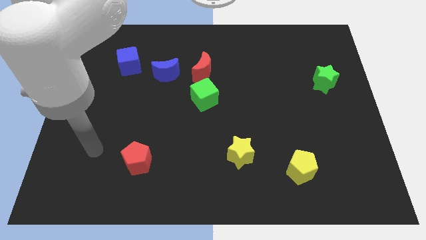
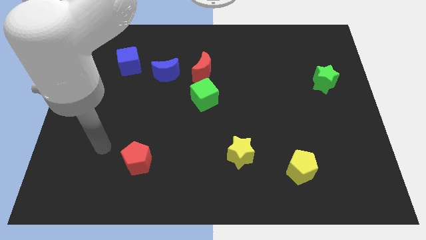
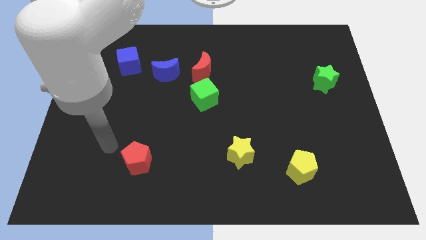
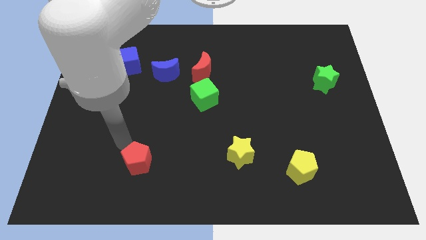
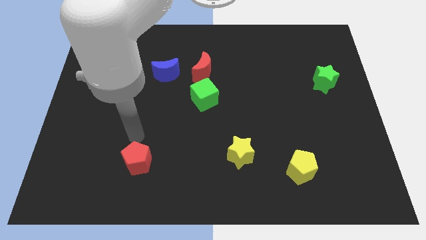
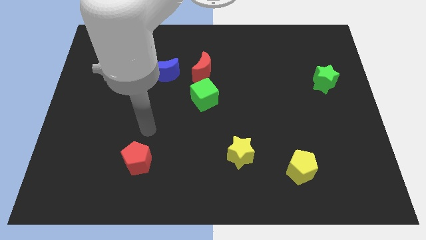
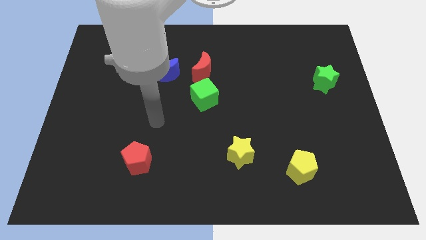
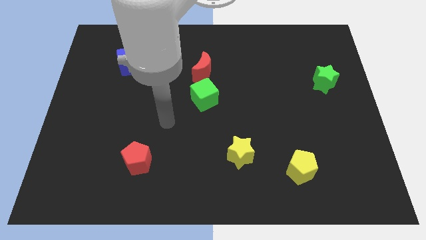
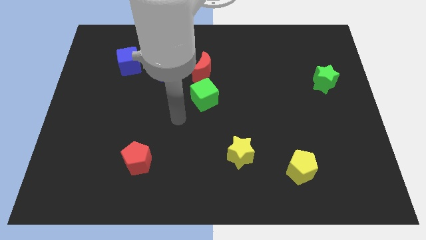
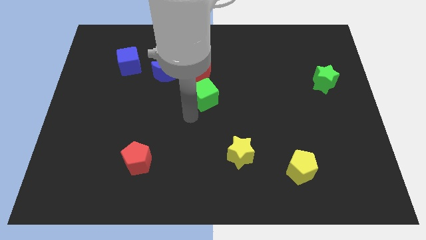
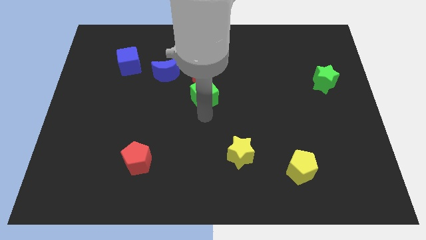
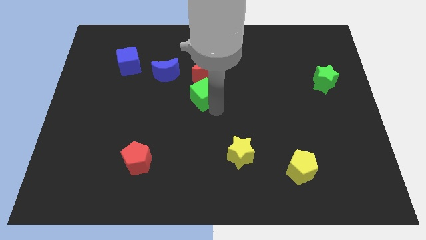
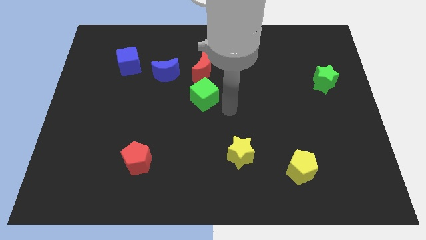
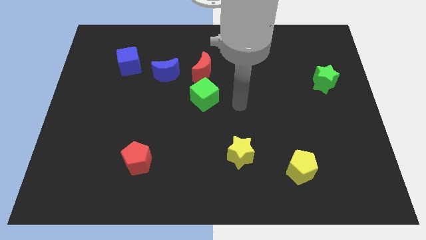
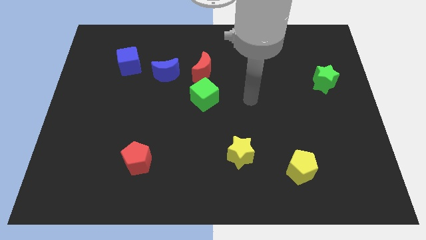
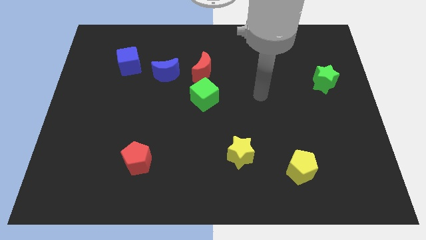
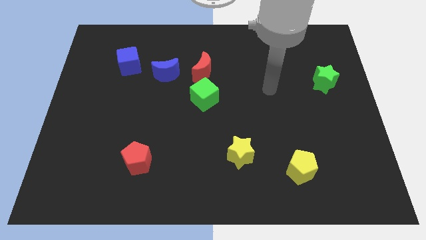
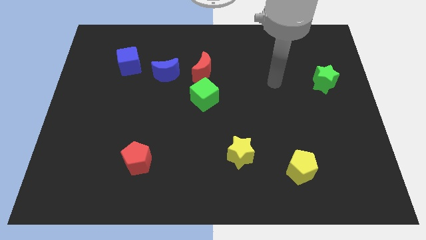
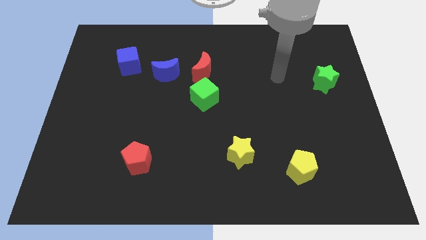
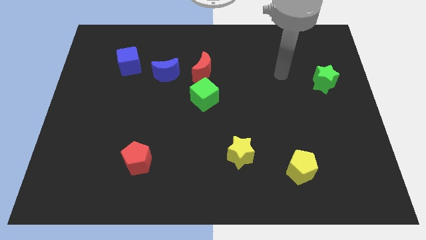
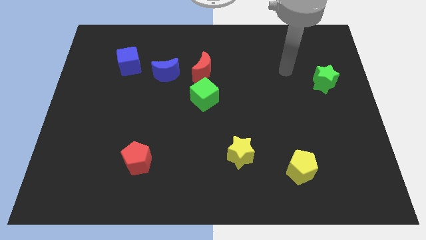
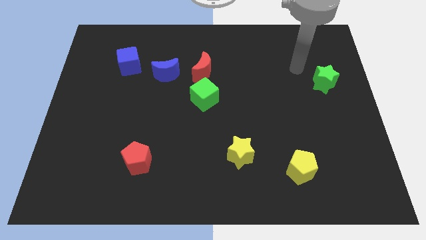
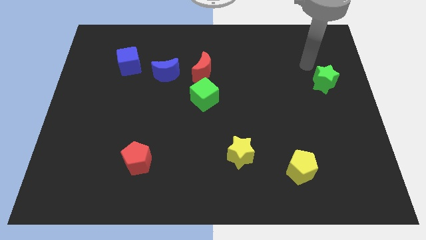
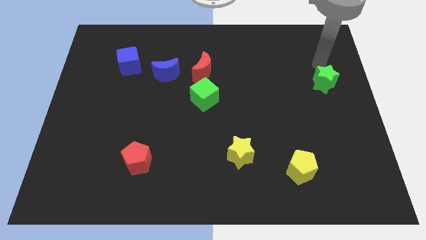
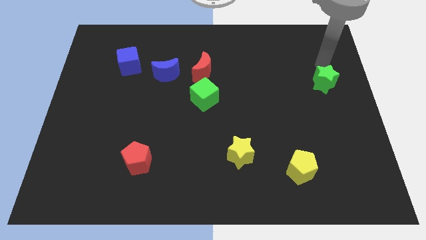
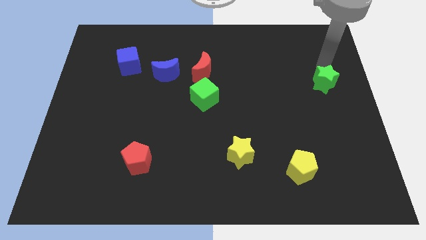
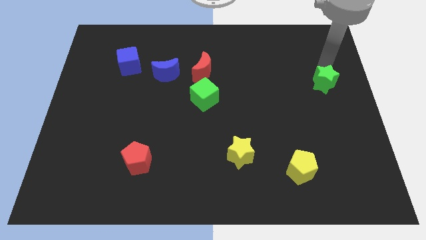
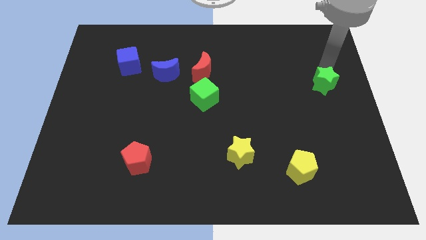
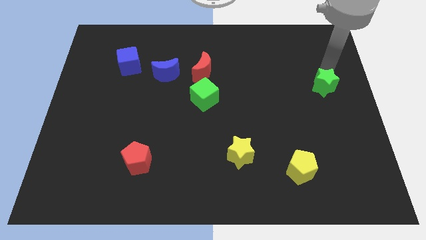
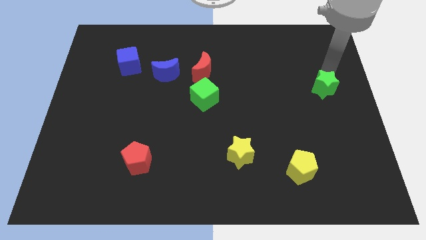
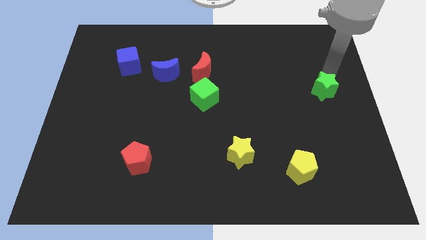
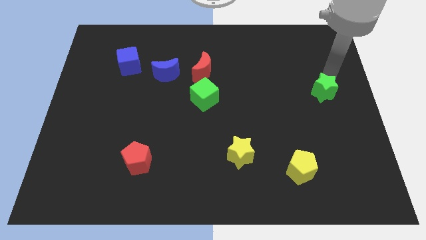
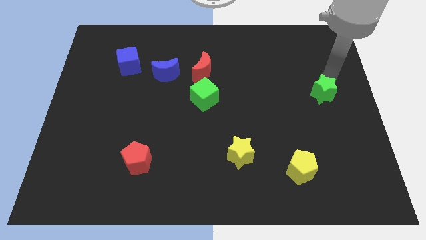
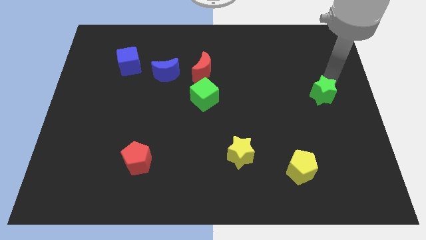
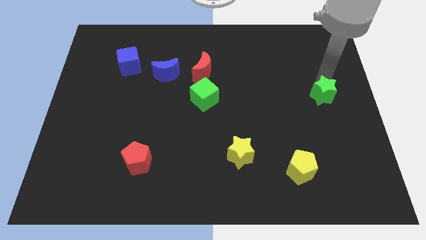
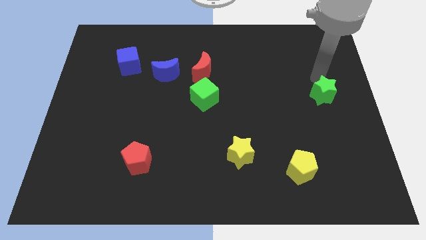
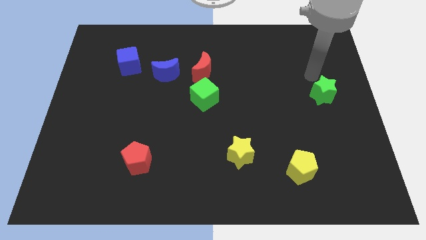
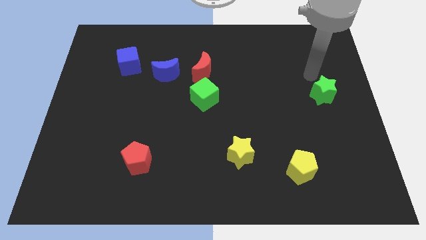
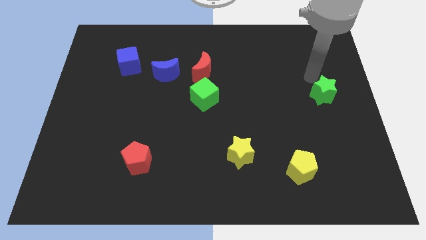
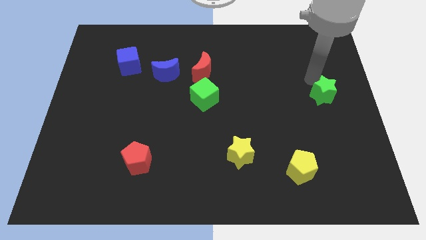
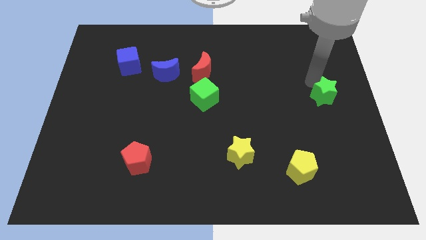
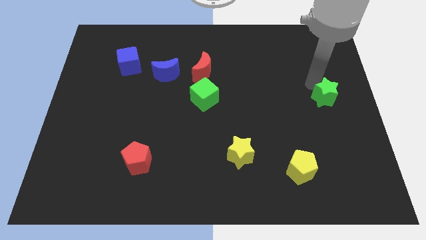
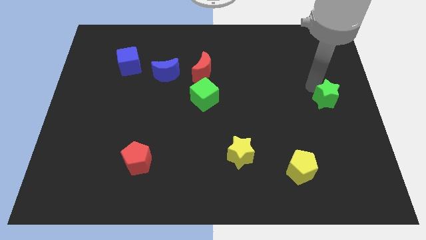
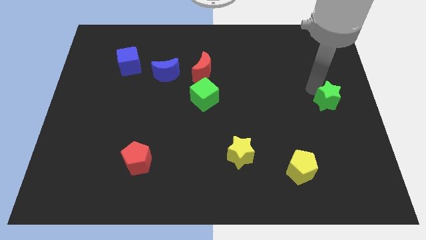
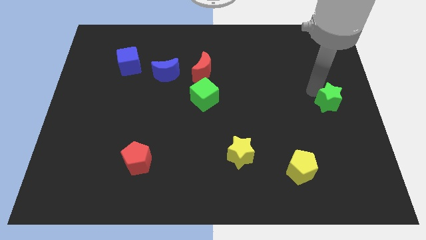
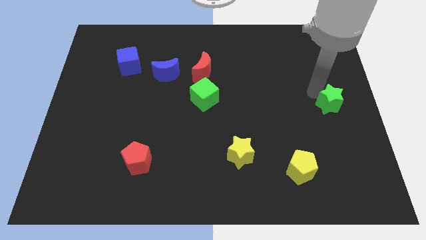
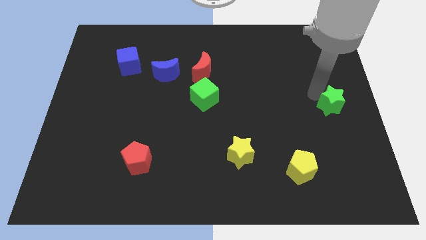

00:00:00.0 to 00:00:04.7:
slightly push the green star down

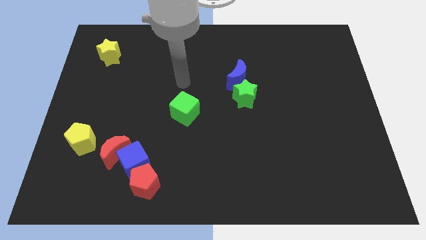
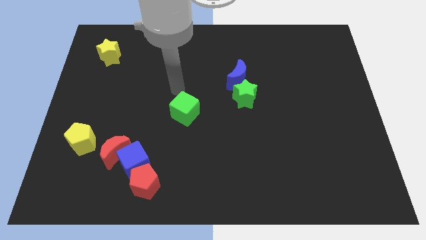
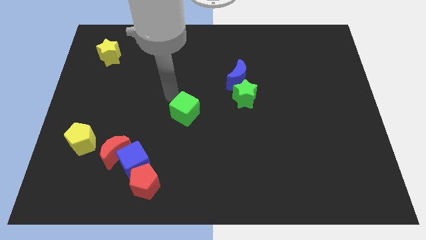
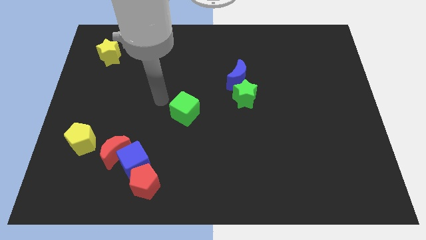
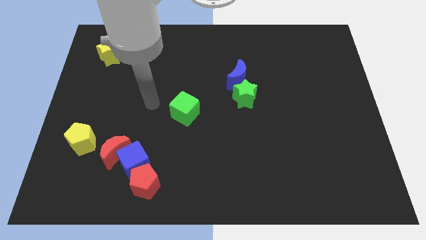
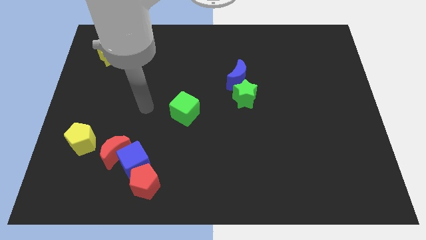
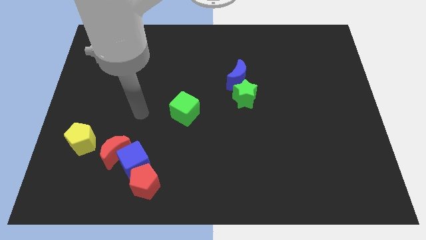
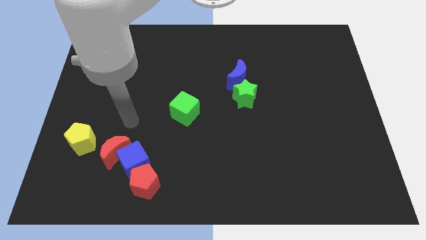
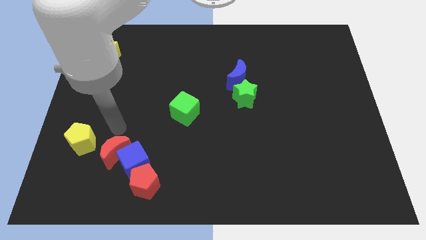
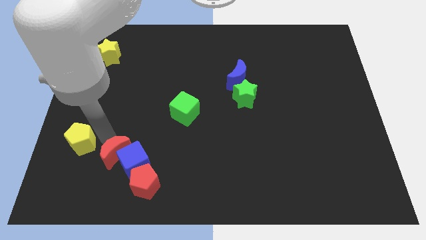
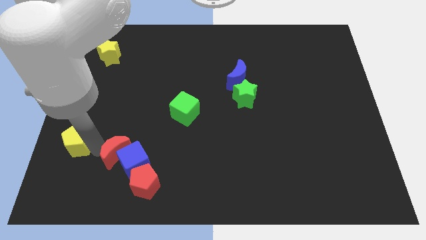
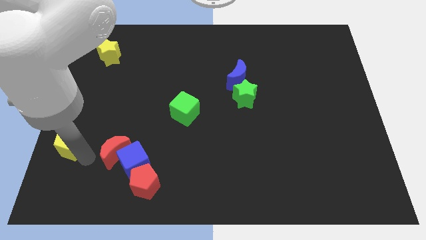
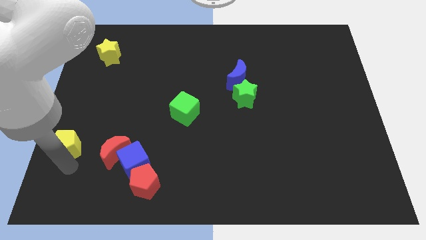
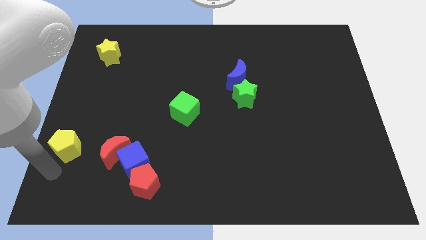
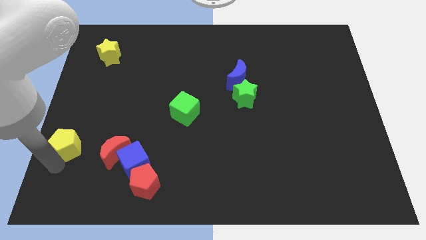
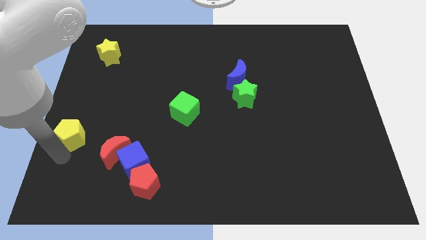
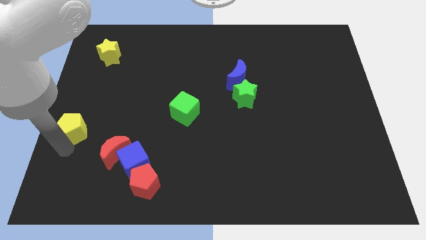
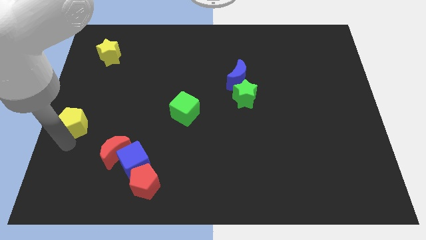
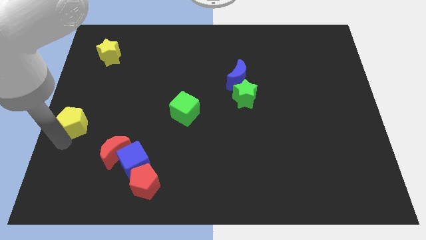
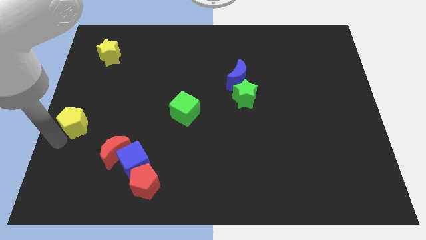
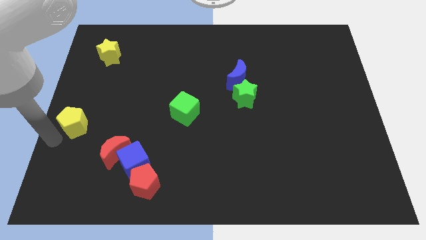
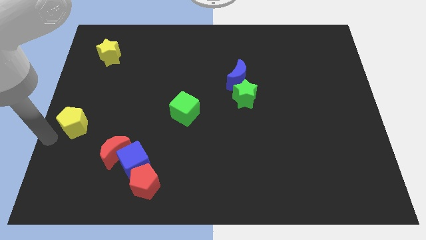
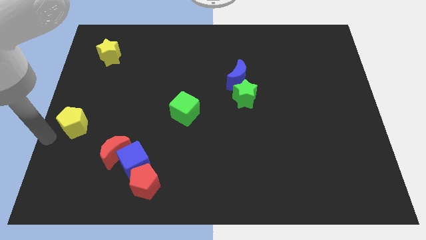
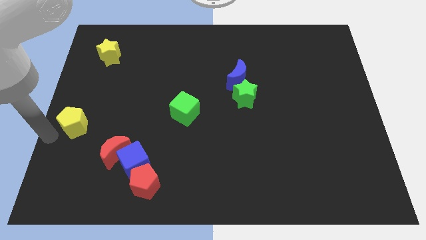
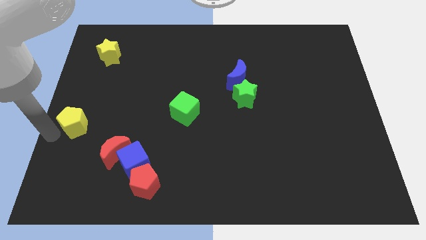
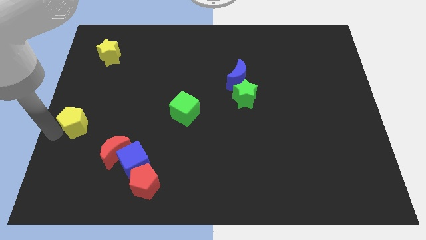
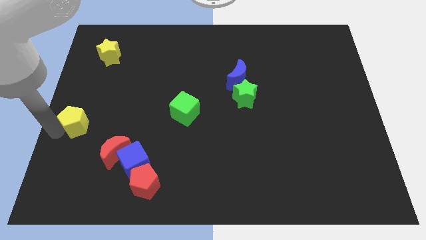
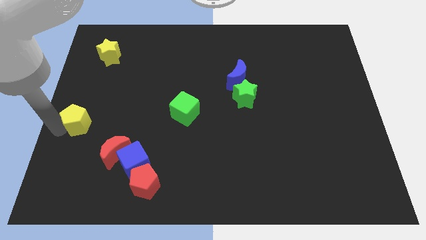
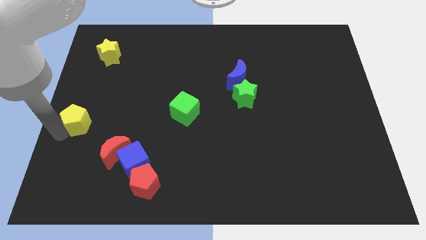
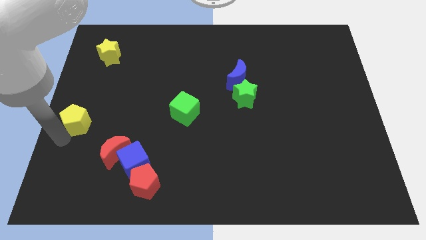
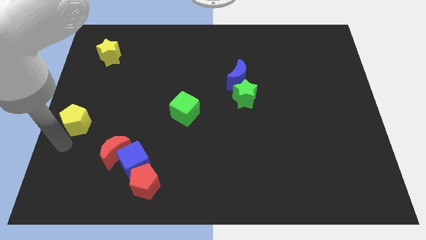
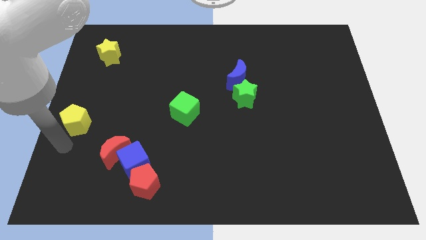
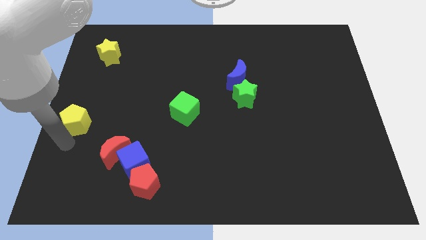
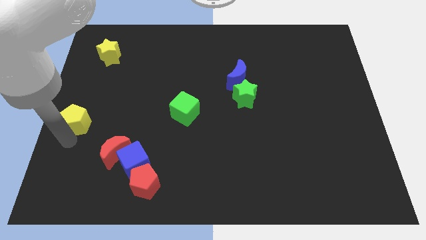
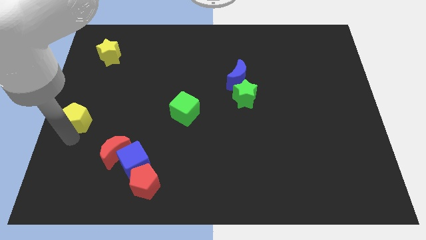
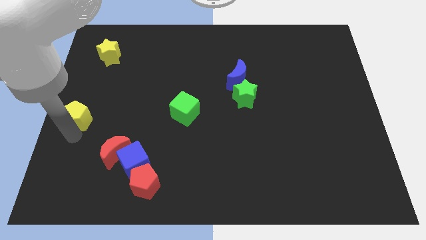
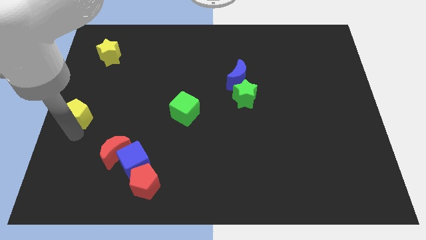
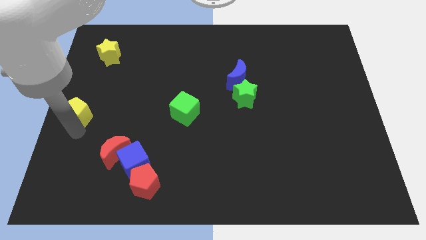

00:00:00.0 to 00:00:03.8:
slide the yellow pentagon a bit upwards
